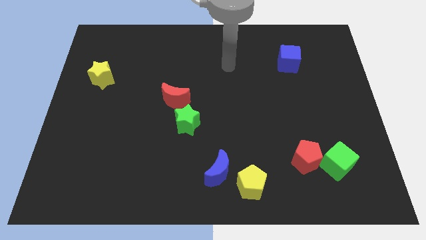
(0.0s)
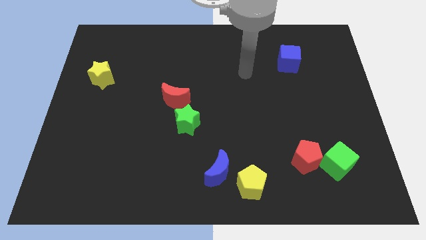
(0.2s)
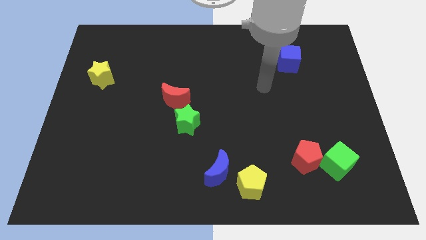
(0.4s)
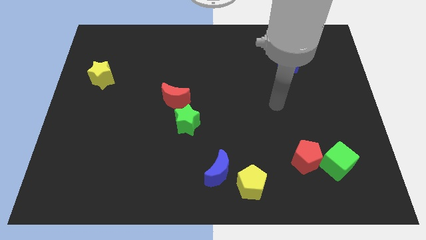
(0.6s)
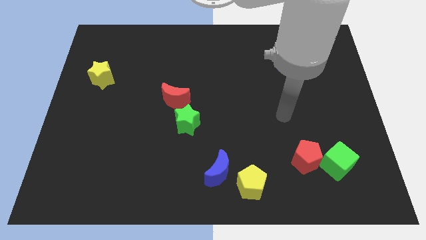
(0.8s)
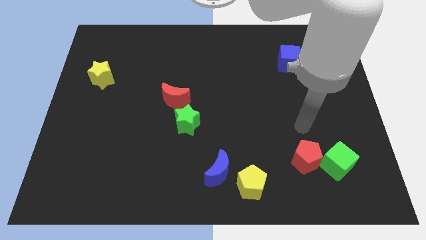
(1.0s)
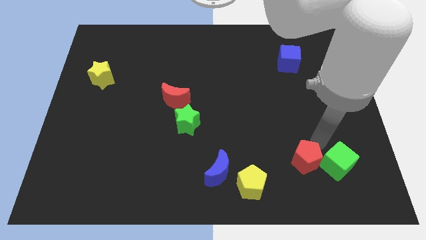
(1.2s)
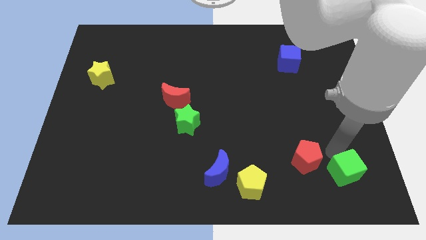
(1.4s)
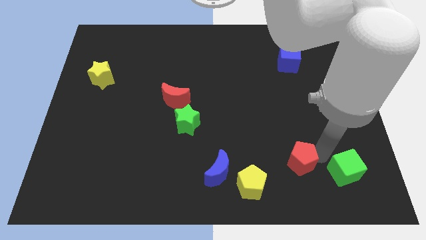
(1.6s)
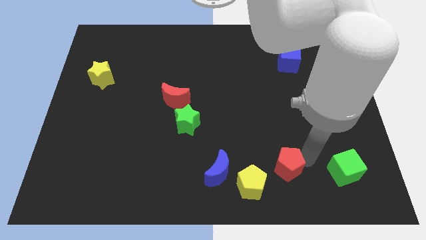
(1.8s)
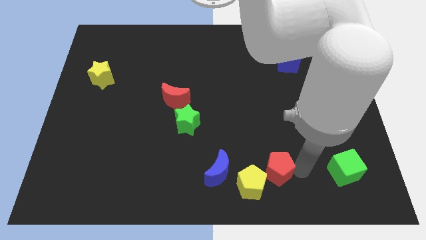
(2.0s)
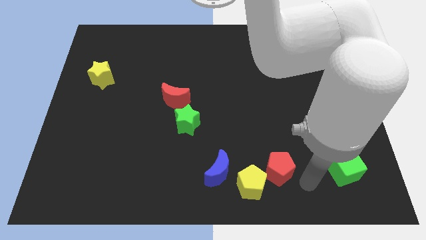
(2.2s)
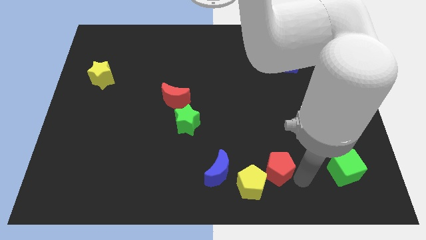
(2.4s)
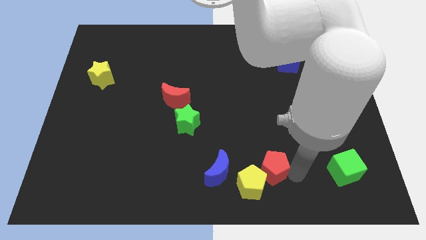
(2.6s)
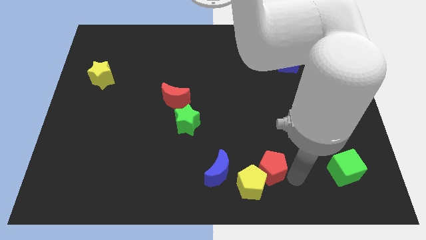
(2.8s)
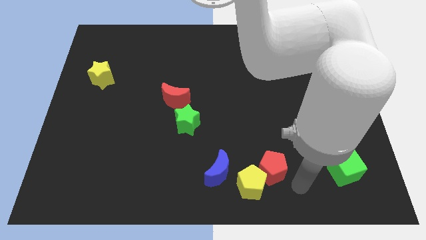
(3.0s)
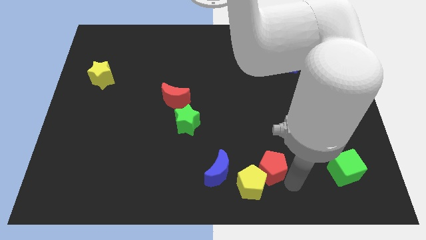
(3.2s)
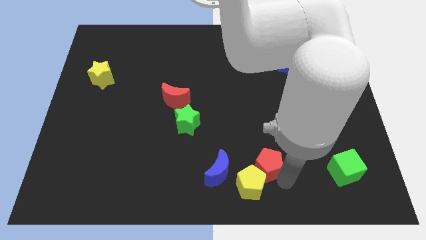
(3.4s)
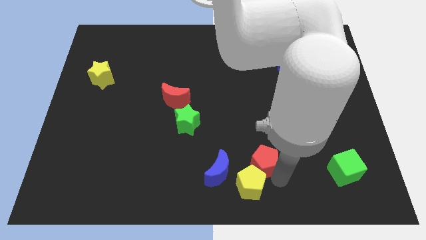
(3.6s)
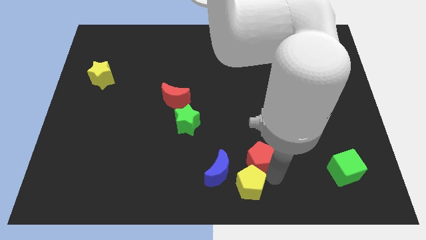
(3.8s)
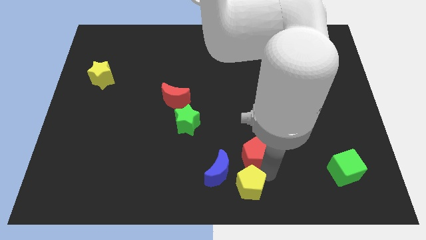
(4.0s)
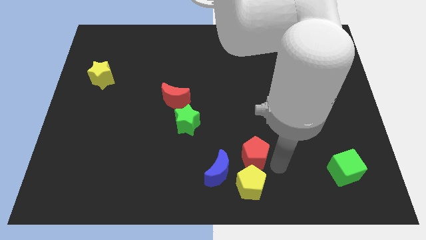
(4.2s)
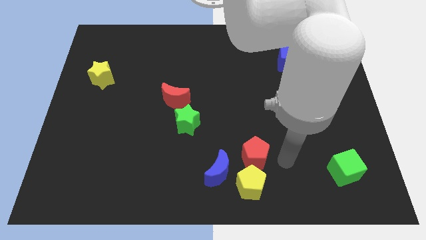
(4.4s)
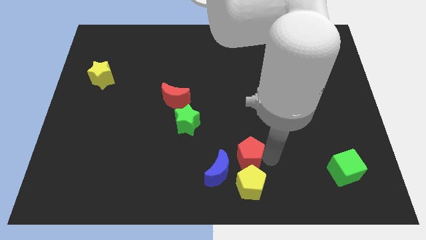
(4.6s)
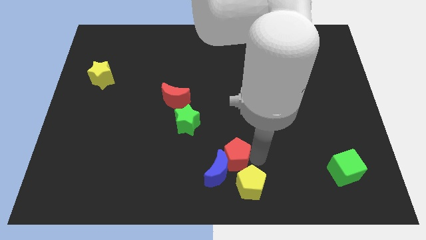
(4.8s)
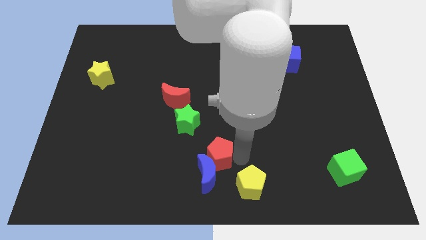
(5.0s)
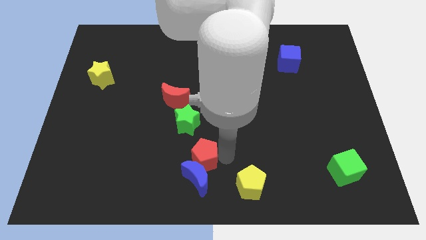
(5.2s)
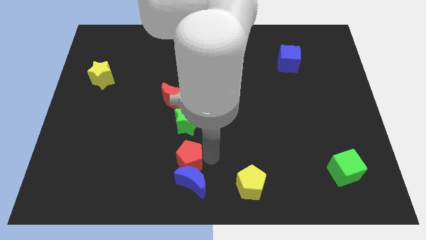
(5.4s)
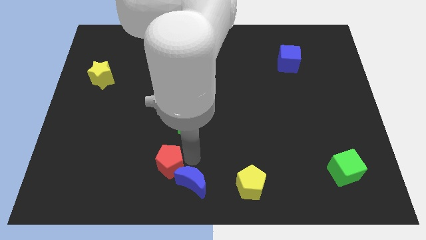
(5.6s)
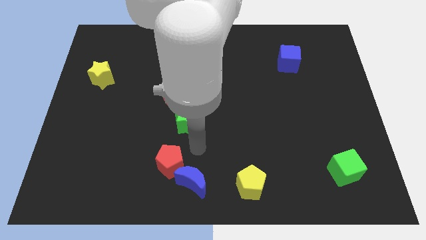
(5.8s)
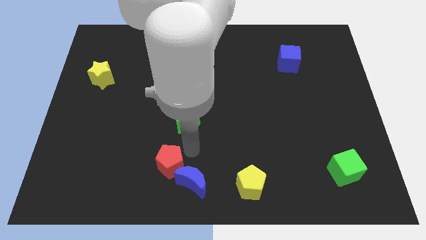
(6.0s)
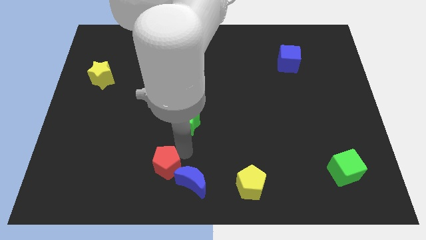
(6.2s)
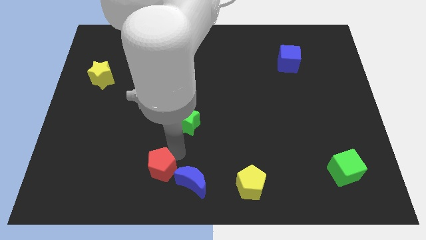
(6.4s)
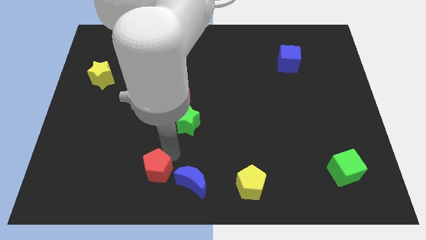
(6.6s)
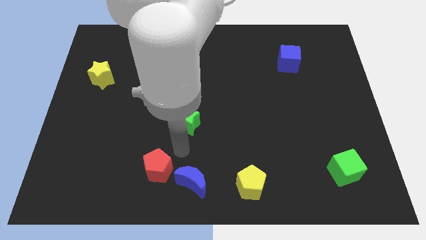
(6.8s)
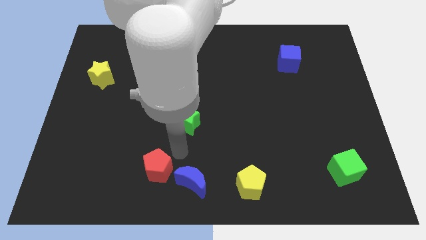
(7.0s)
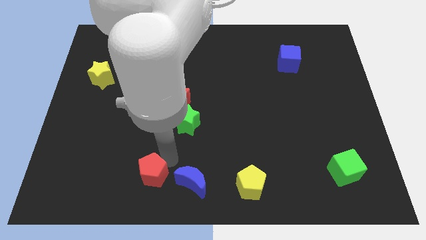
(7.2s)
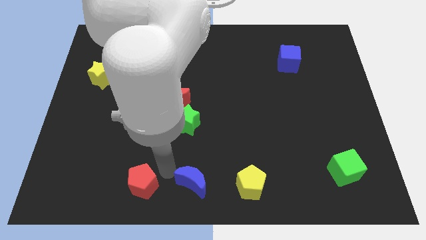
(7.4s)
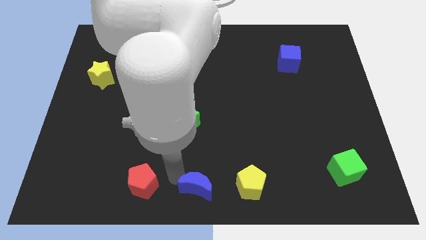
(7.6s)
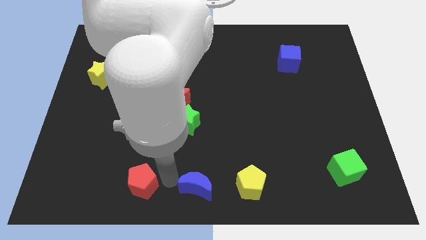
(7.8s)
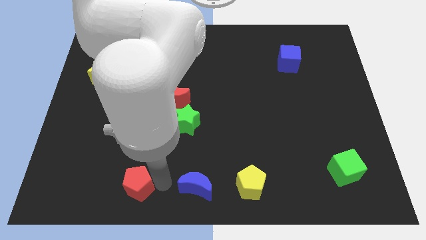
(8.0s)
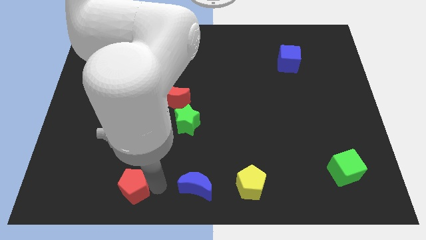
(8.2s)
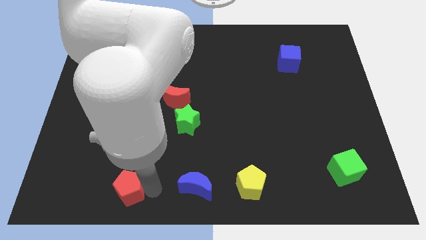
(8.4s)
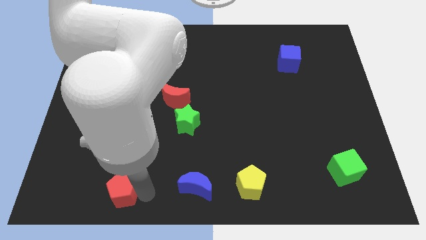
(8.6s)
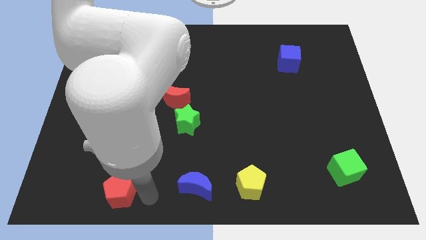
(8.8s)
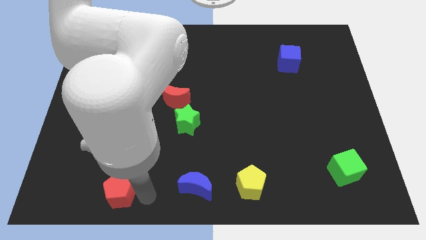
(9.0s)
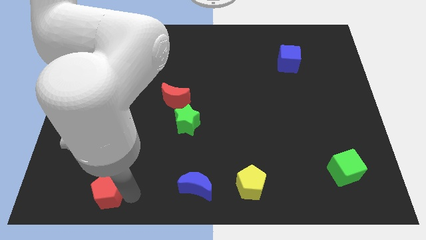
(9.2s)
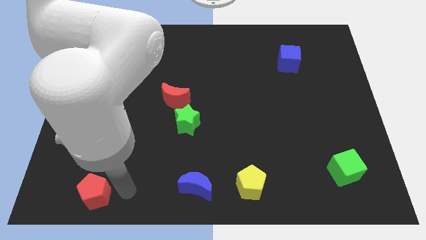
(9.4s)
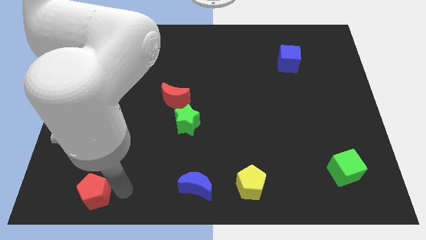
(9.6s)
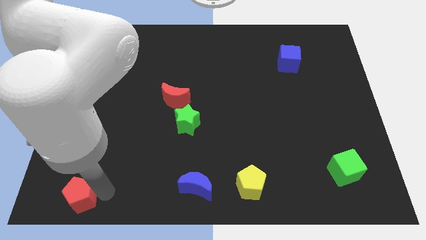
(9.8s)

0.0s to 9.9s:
slide the red pentagon to the lower left corner

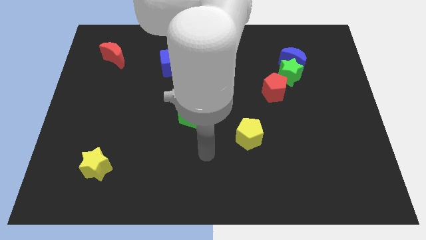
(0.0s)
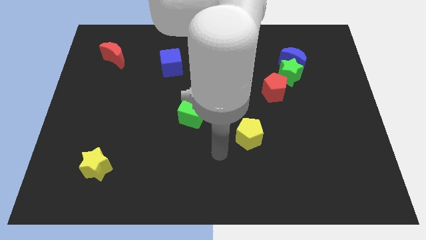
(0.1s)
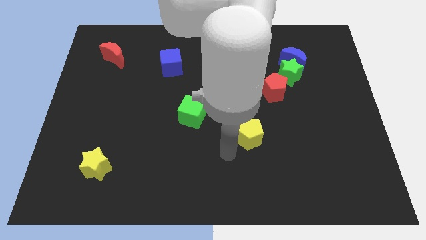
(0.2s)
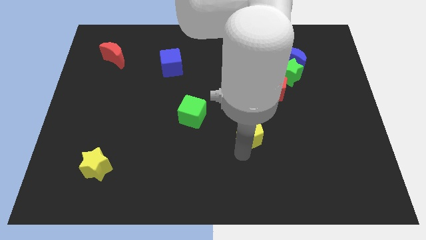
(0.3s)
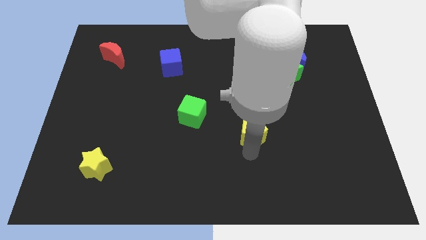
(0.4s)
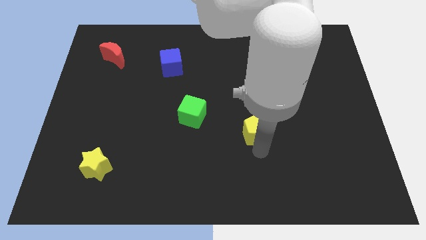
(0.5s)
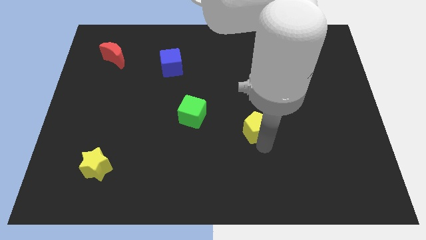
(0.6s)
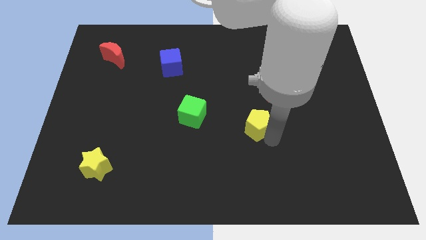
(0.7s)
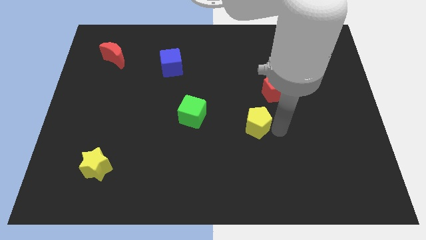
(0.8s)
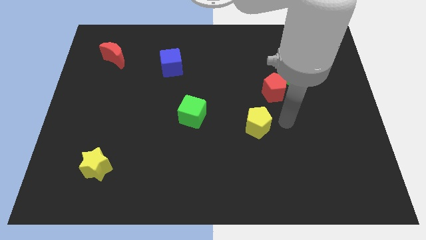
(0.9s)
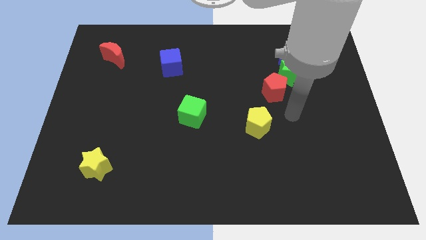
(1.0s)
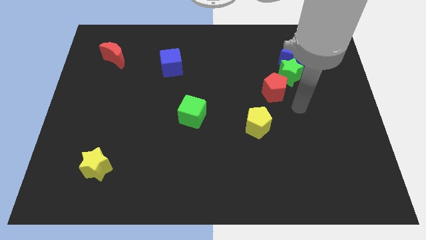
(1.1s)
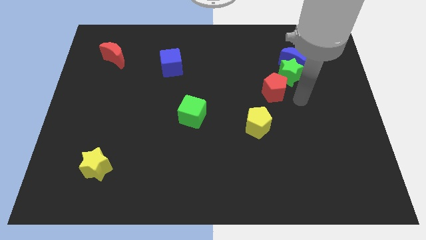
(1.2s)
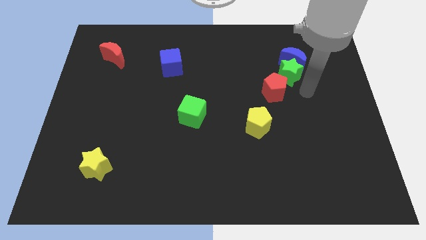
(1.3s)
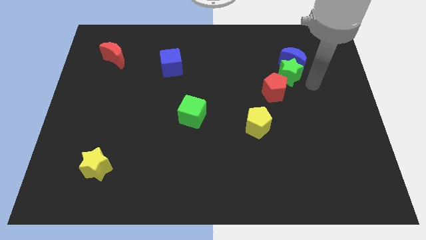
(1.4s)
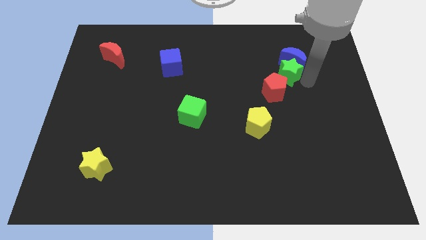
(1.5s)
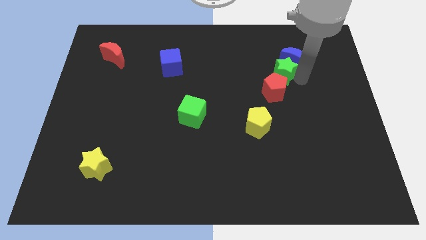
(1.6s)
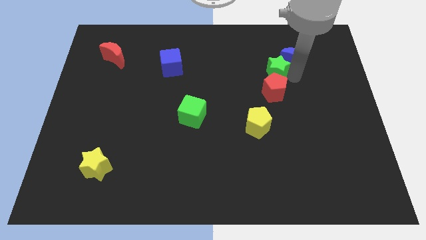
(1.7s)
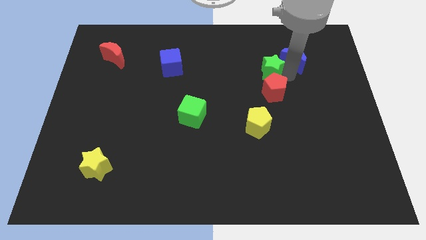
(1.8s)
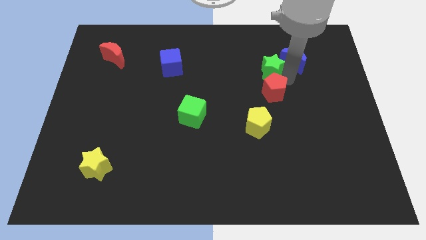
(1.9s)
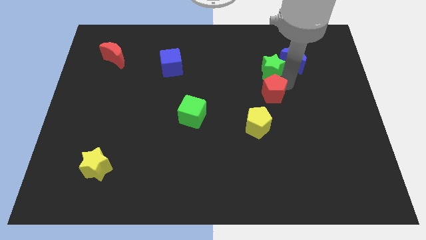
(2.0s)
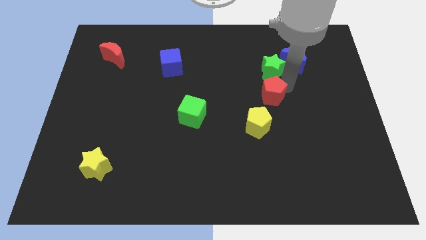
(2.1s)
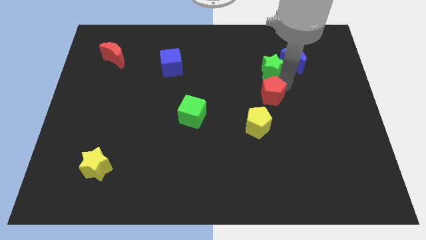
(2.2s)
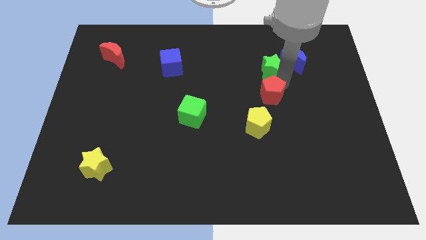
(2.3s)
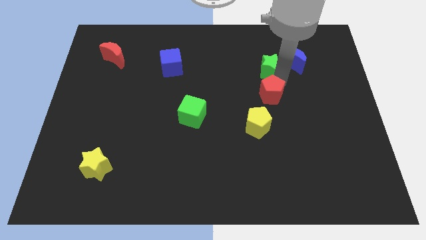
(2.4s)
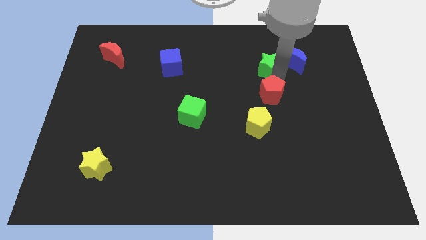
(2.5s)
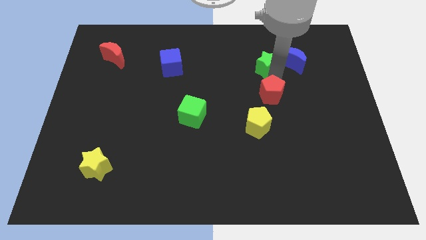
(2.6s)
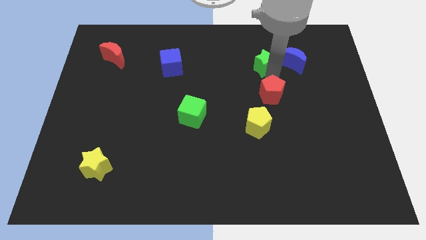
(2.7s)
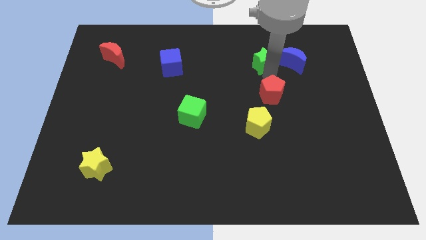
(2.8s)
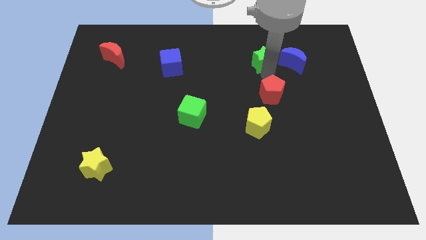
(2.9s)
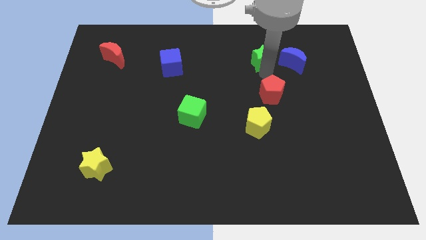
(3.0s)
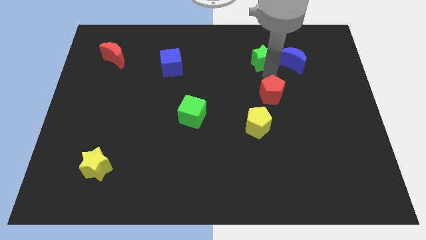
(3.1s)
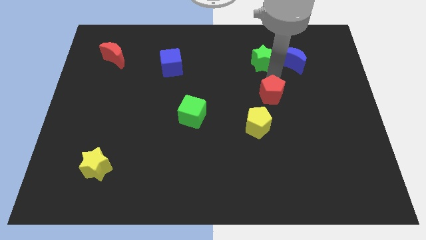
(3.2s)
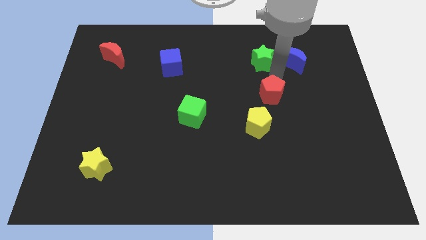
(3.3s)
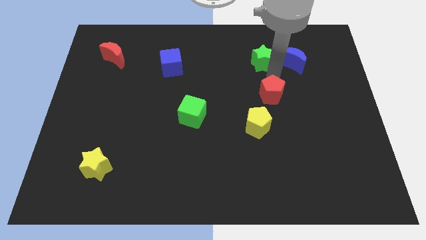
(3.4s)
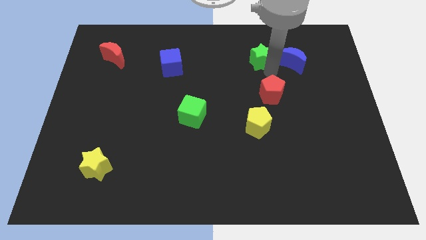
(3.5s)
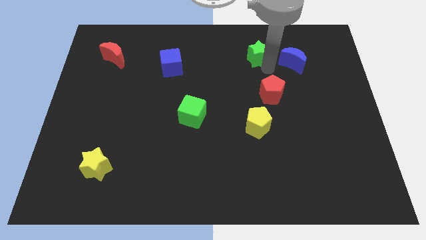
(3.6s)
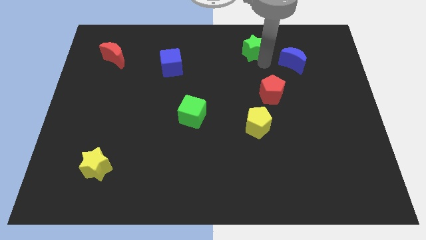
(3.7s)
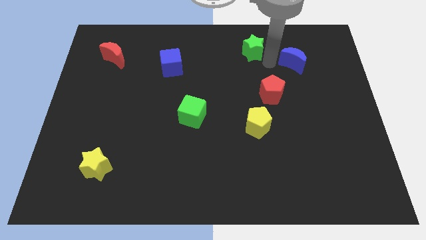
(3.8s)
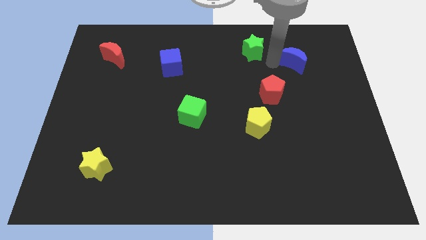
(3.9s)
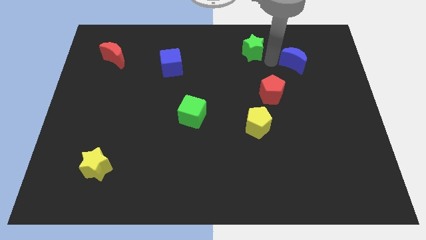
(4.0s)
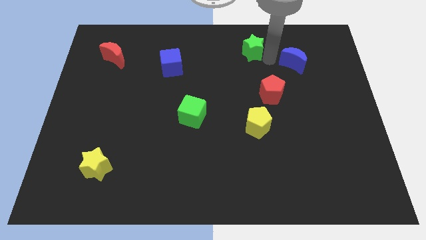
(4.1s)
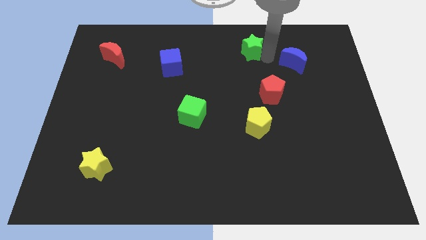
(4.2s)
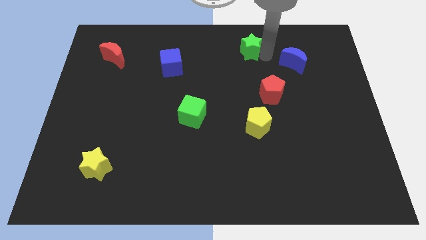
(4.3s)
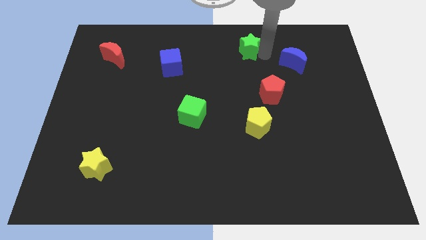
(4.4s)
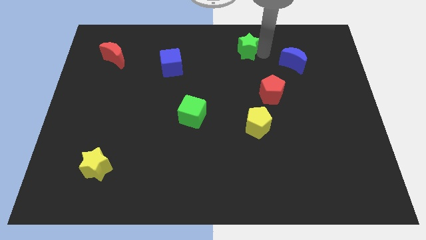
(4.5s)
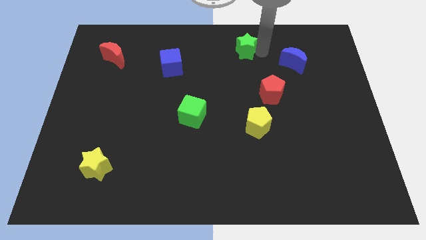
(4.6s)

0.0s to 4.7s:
put the green star to the towards your base
